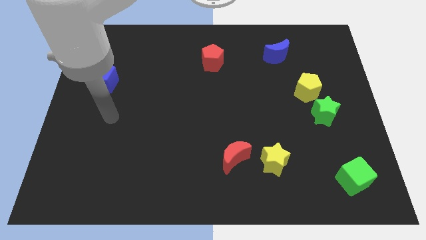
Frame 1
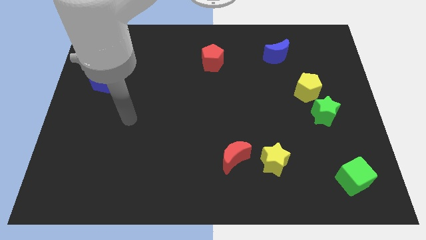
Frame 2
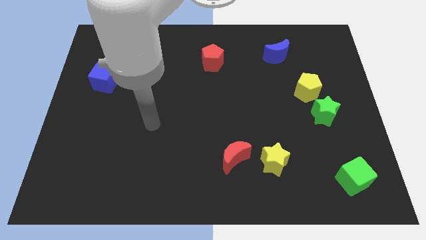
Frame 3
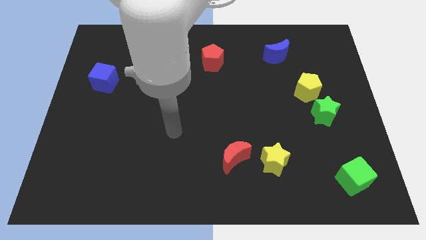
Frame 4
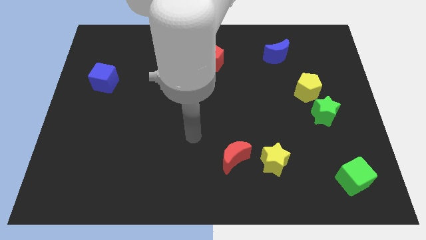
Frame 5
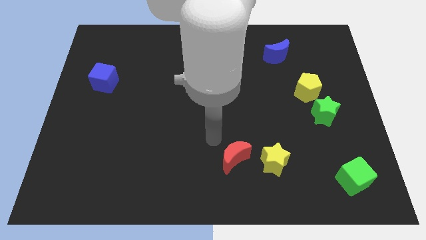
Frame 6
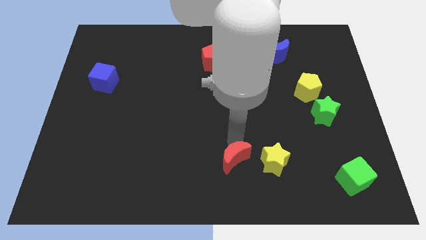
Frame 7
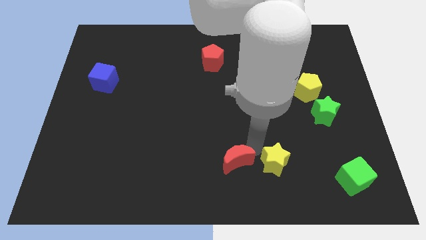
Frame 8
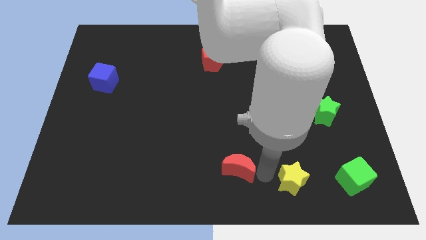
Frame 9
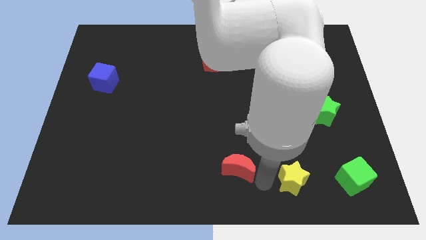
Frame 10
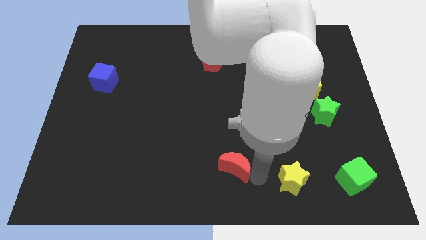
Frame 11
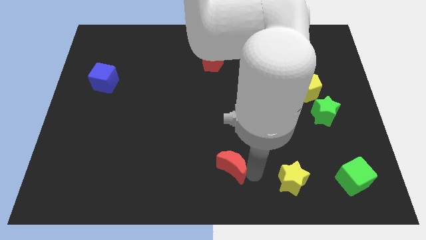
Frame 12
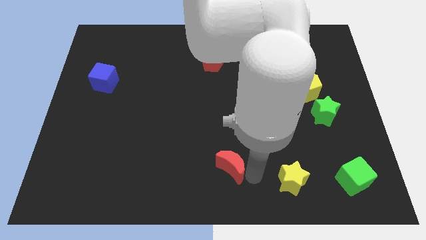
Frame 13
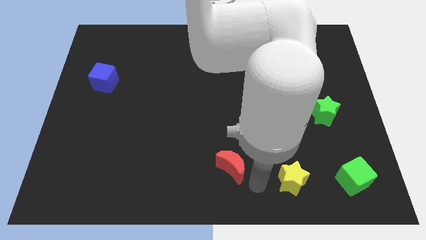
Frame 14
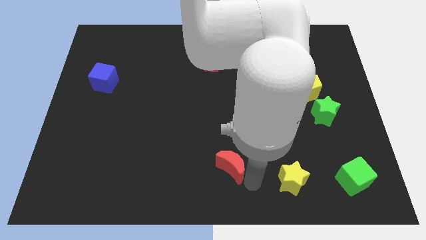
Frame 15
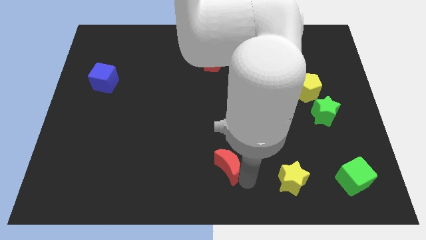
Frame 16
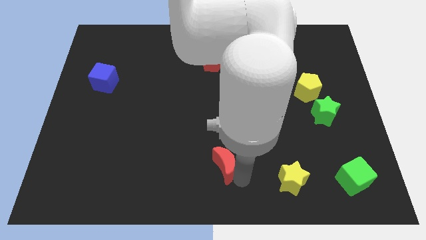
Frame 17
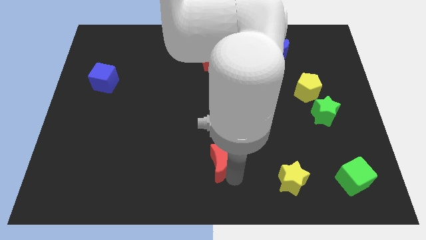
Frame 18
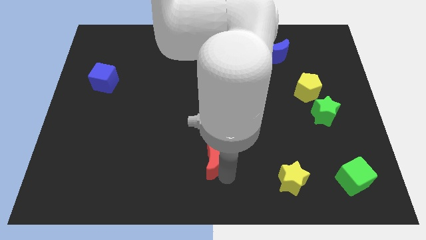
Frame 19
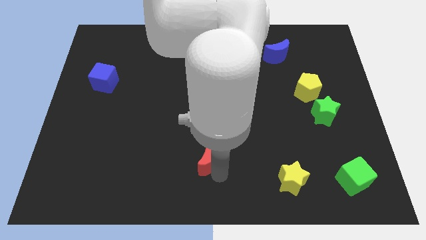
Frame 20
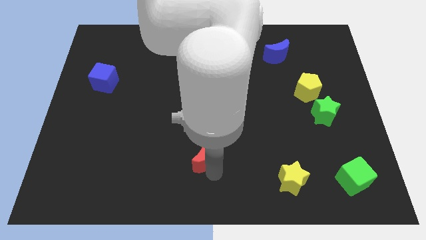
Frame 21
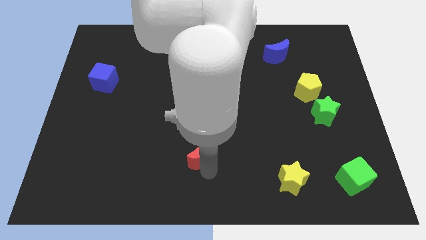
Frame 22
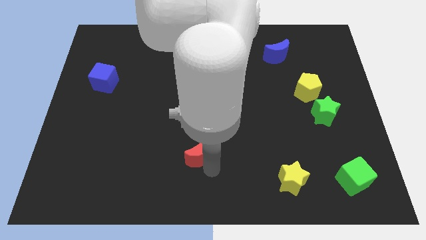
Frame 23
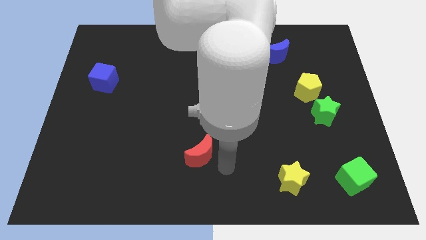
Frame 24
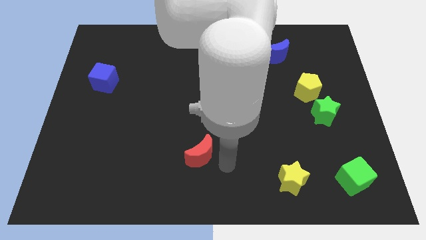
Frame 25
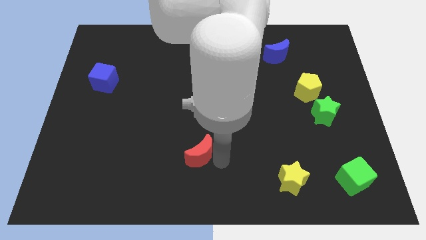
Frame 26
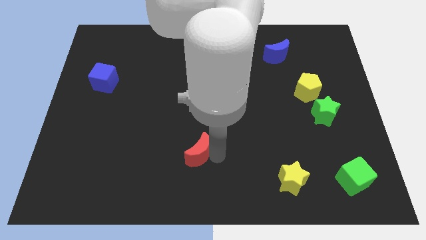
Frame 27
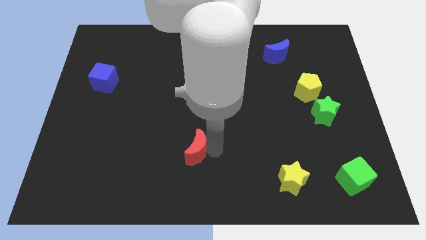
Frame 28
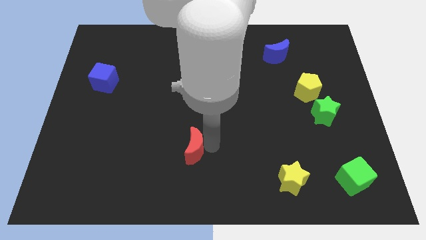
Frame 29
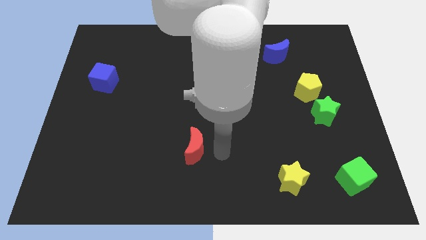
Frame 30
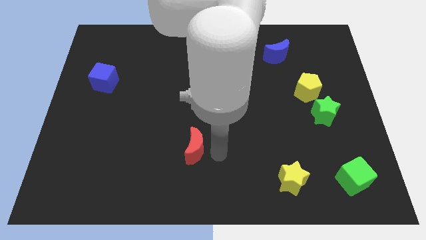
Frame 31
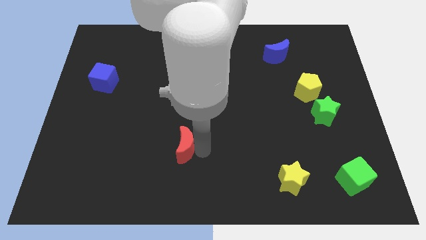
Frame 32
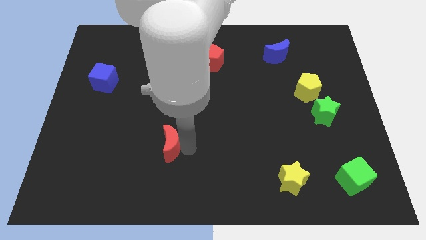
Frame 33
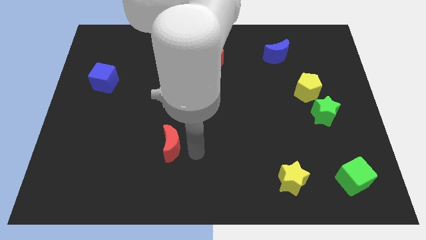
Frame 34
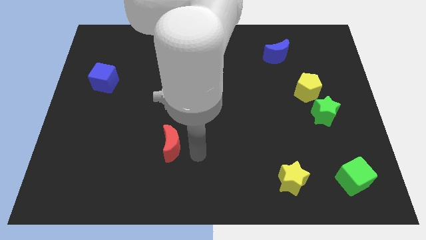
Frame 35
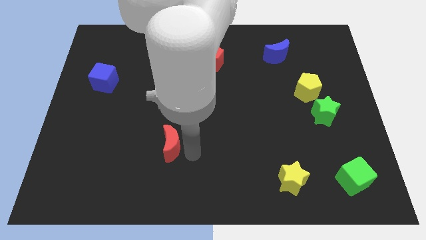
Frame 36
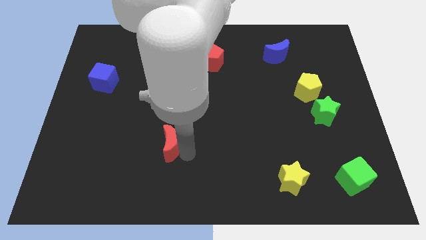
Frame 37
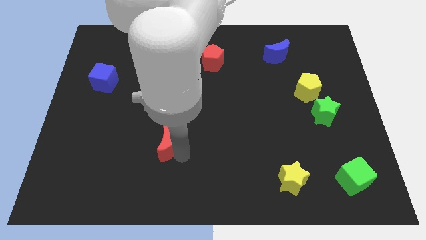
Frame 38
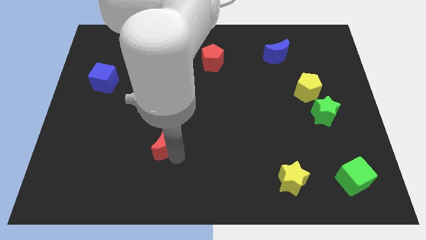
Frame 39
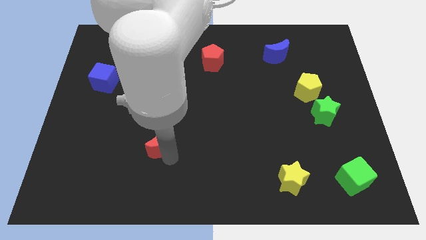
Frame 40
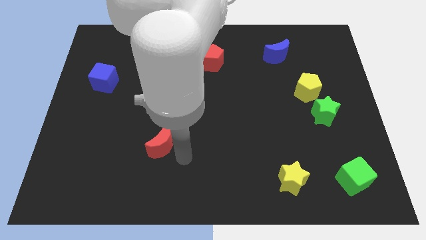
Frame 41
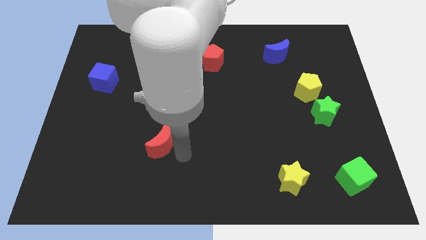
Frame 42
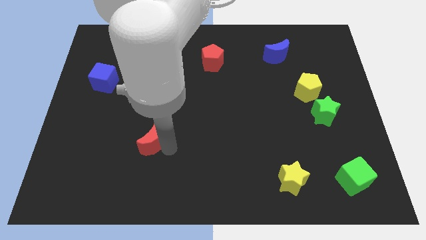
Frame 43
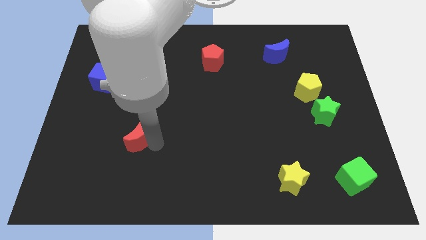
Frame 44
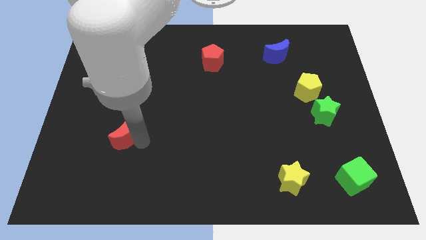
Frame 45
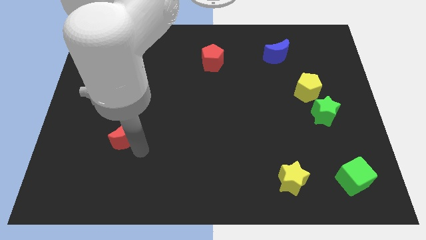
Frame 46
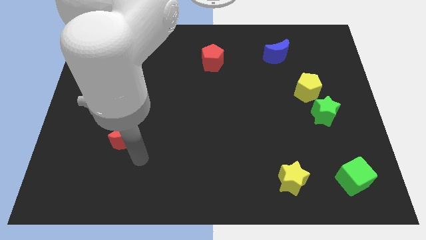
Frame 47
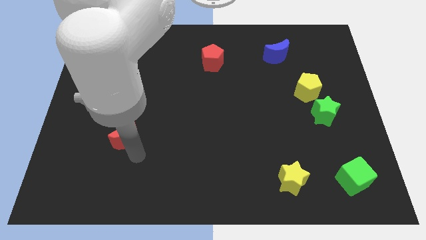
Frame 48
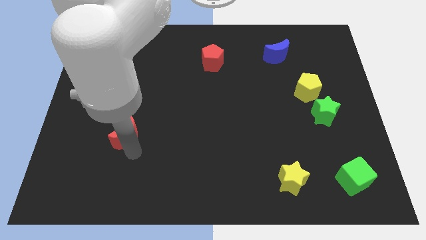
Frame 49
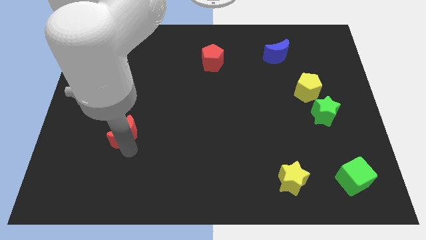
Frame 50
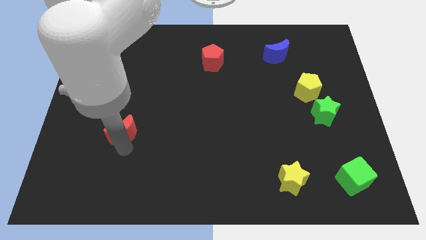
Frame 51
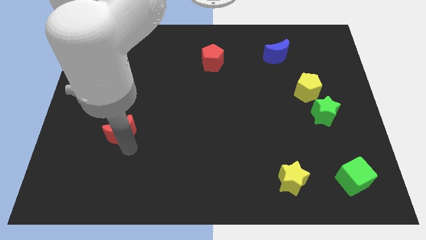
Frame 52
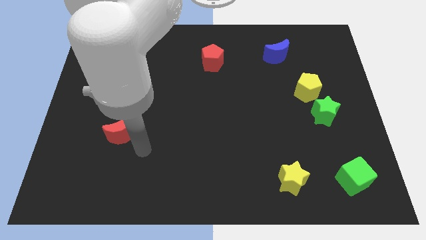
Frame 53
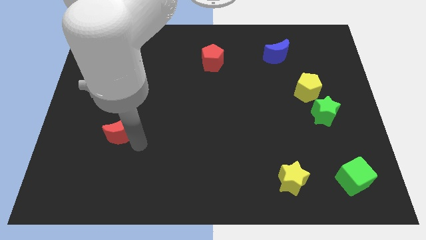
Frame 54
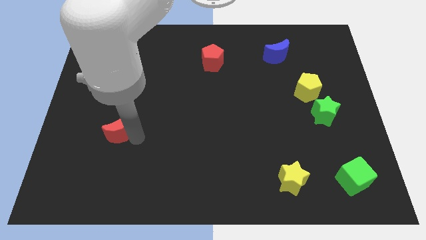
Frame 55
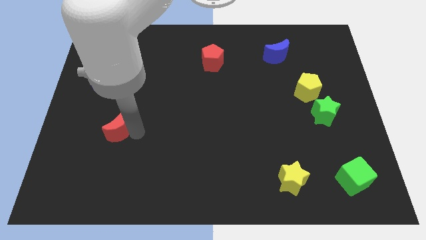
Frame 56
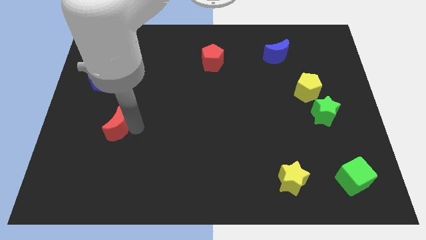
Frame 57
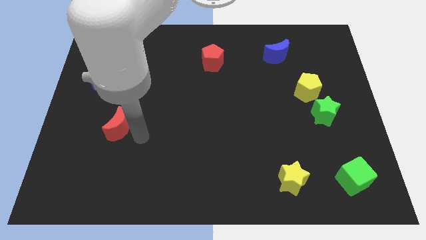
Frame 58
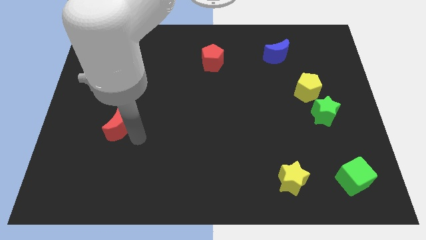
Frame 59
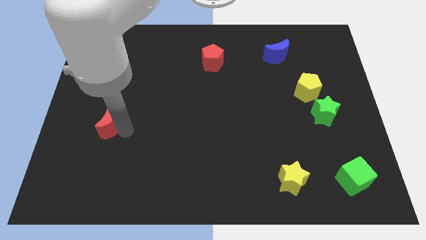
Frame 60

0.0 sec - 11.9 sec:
slide the red moon below the blue cube
